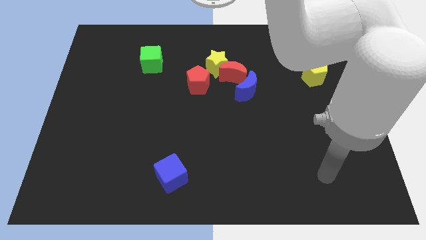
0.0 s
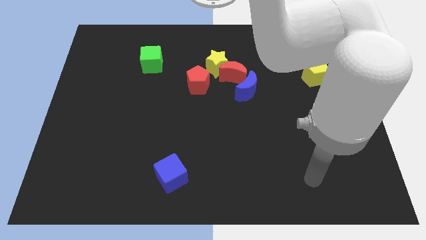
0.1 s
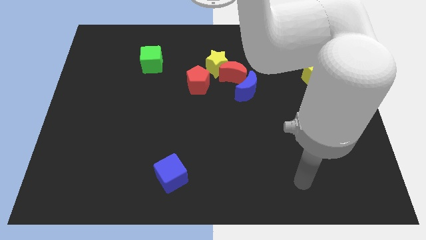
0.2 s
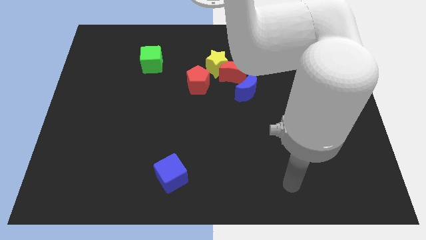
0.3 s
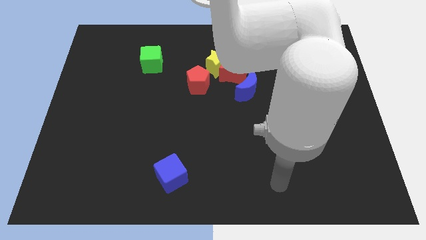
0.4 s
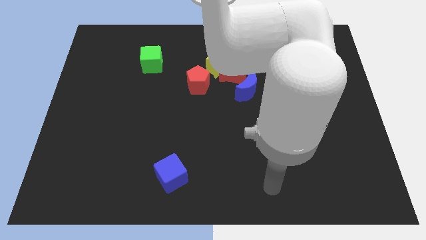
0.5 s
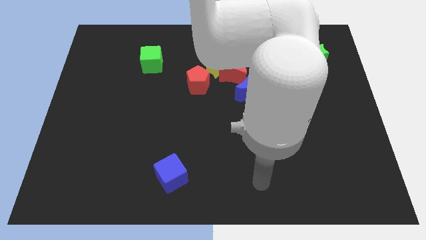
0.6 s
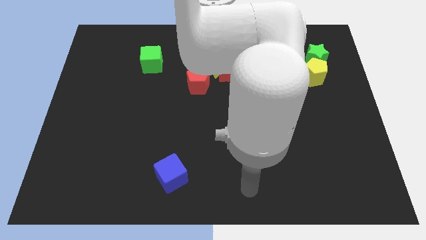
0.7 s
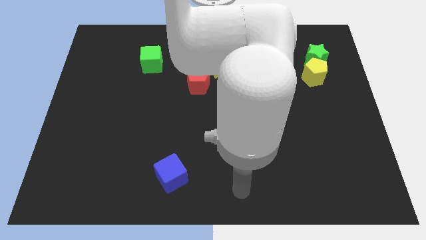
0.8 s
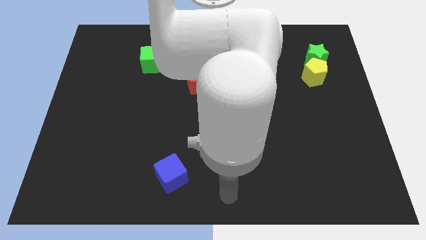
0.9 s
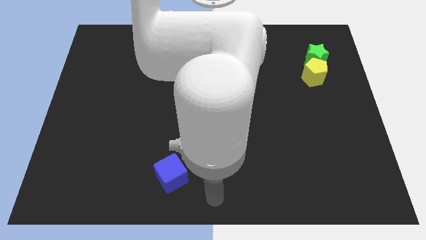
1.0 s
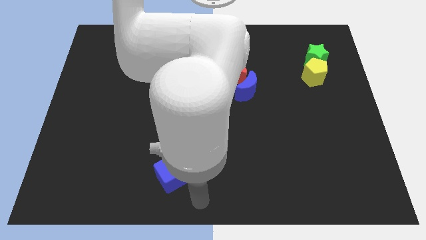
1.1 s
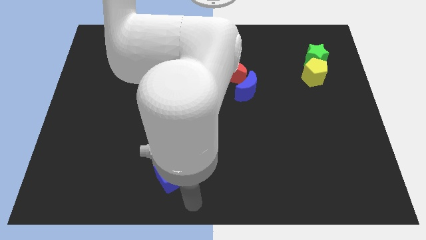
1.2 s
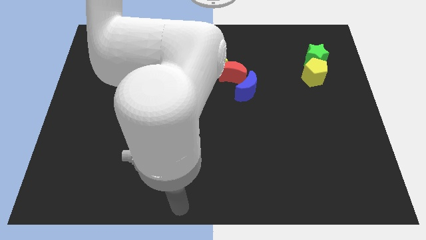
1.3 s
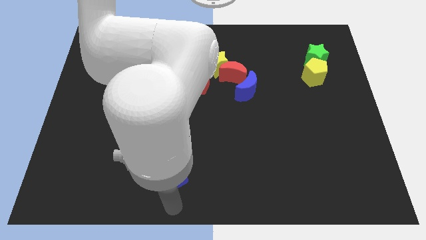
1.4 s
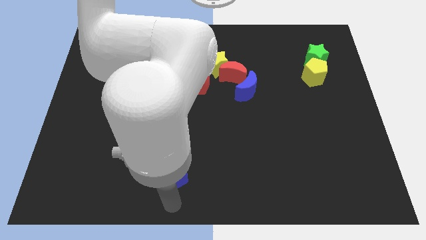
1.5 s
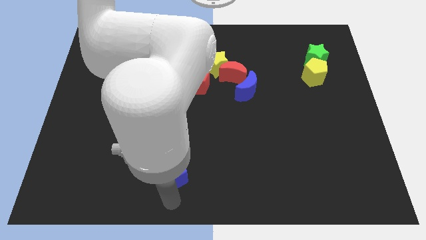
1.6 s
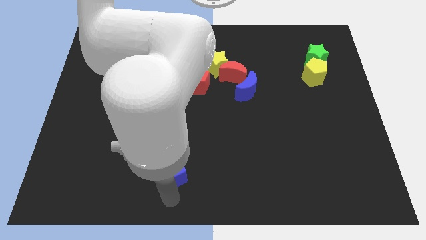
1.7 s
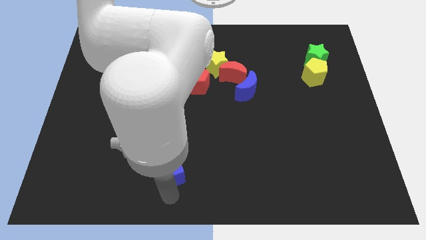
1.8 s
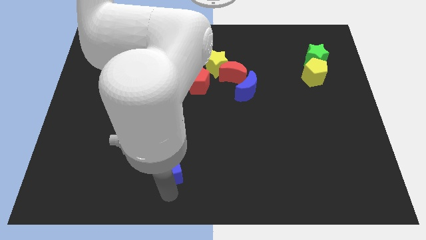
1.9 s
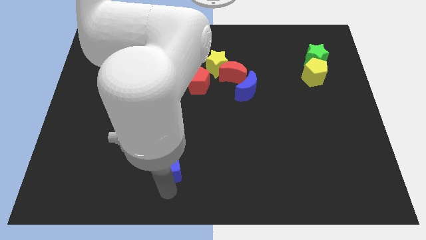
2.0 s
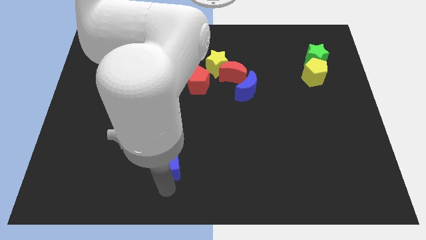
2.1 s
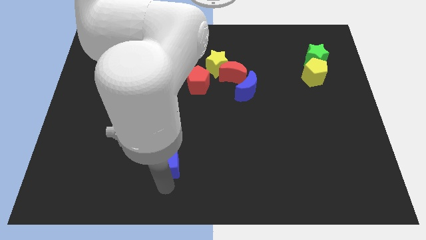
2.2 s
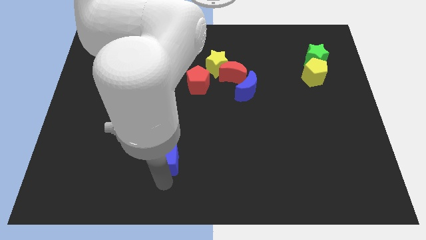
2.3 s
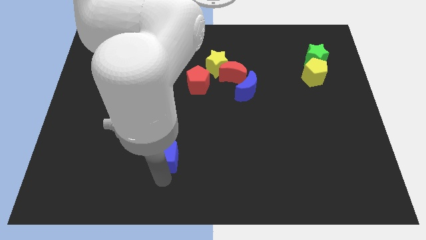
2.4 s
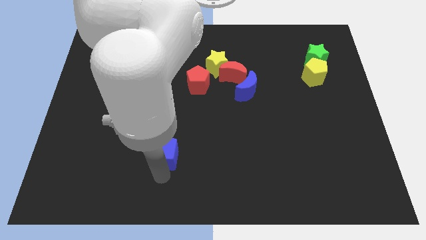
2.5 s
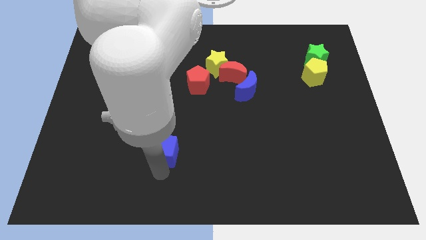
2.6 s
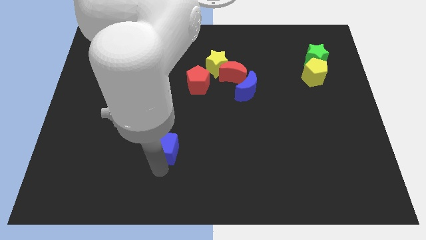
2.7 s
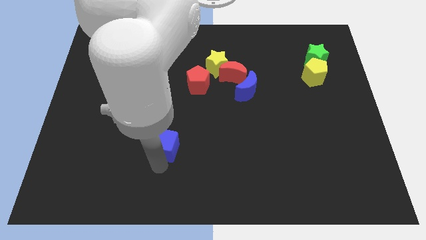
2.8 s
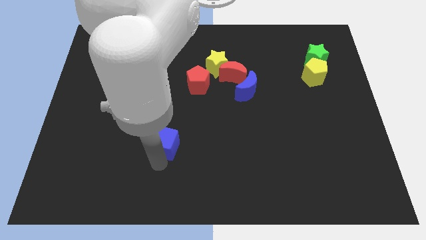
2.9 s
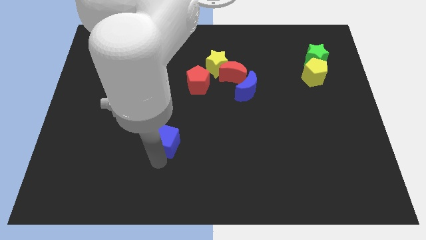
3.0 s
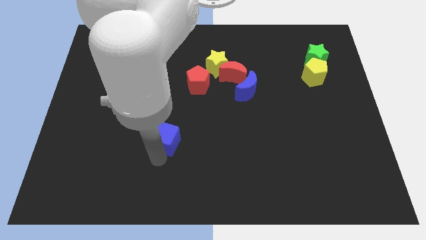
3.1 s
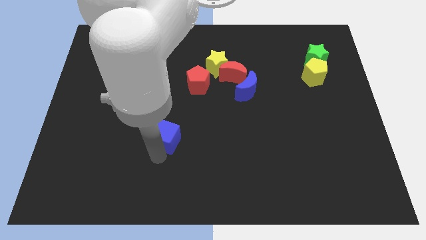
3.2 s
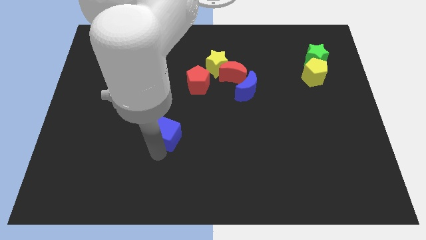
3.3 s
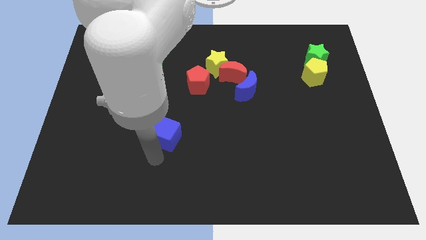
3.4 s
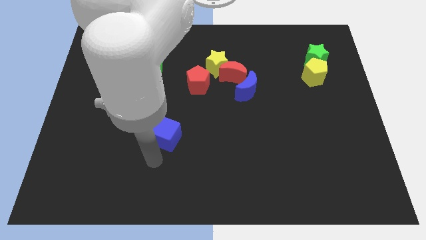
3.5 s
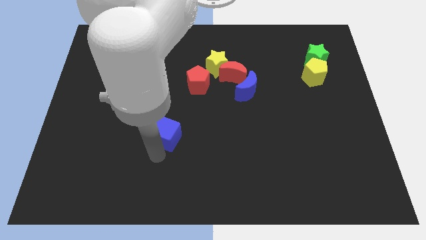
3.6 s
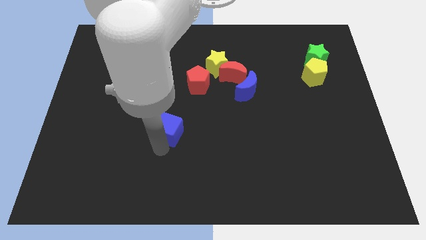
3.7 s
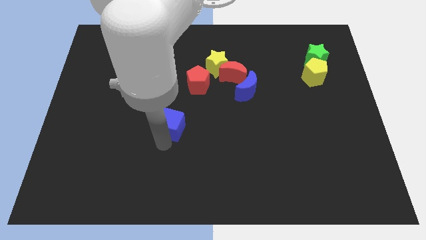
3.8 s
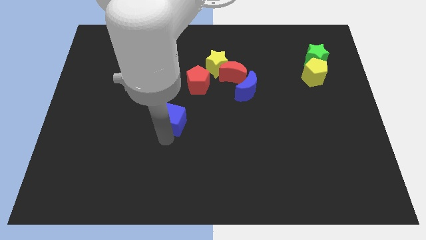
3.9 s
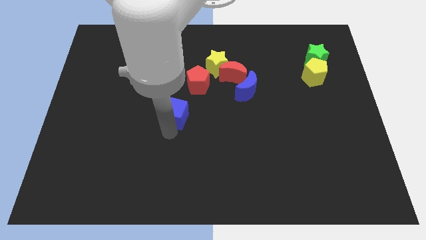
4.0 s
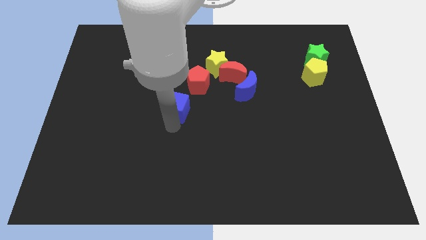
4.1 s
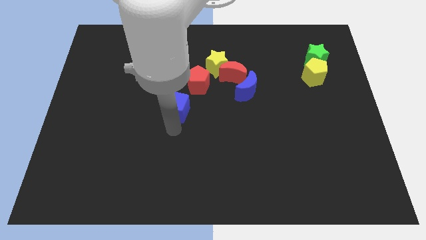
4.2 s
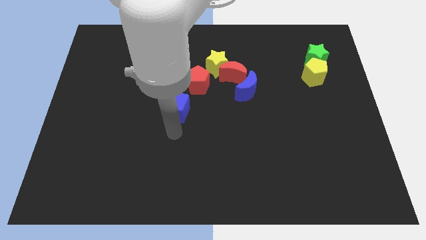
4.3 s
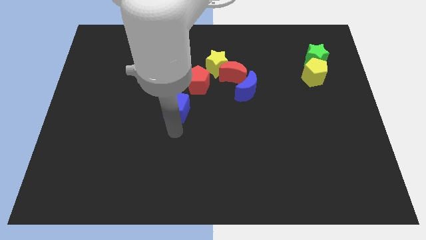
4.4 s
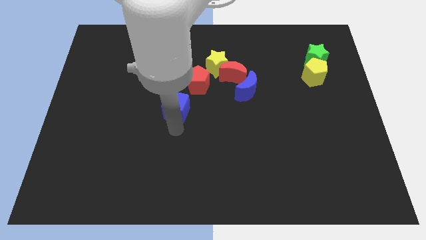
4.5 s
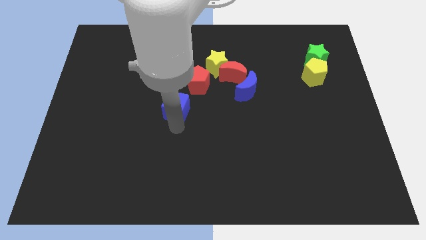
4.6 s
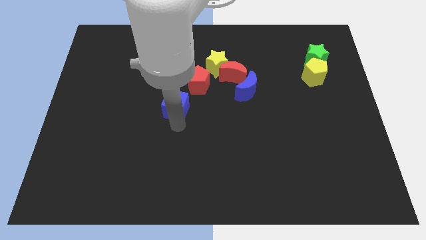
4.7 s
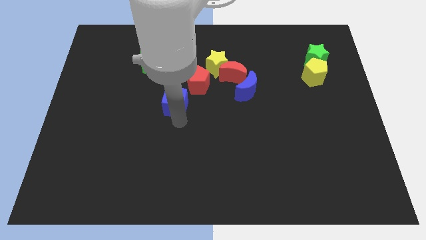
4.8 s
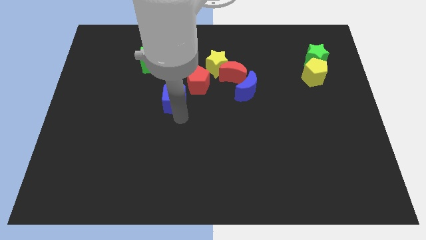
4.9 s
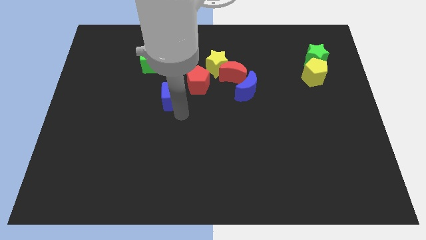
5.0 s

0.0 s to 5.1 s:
move the blue cube upwards

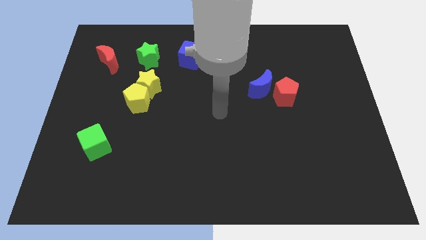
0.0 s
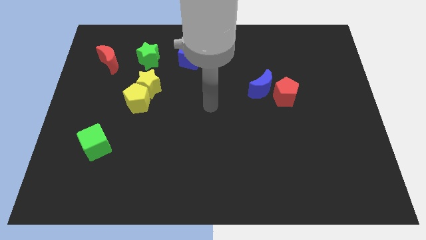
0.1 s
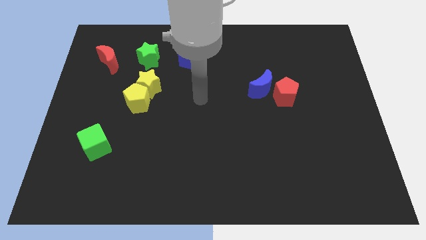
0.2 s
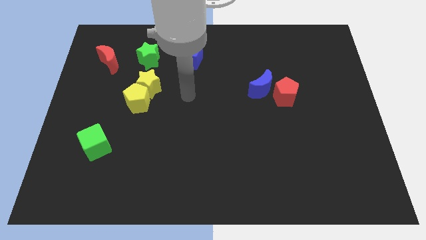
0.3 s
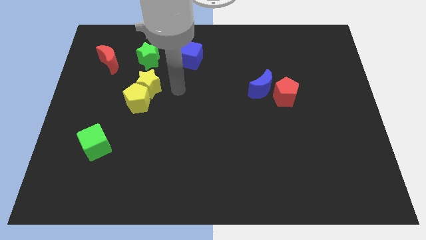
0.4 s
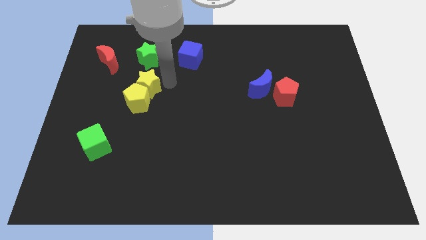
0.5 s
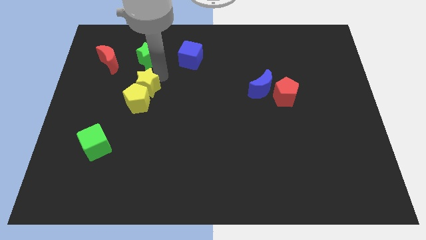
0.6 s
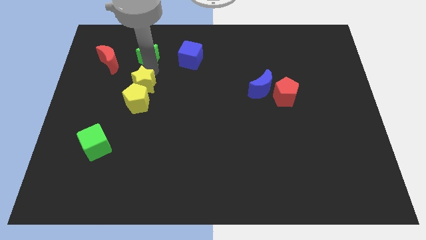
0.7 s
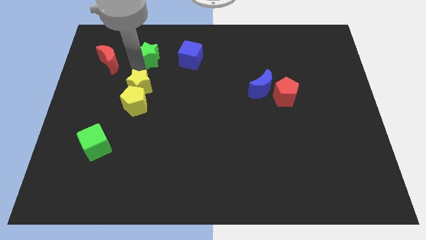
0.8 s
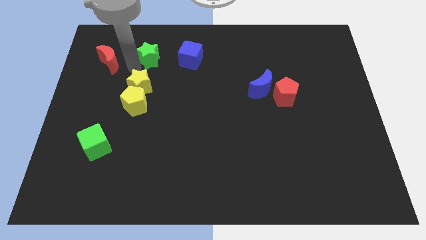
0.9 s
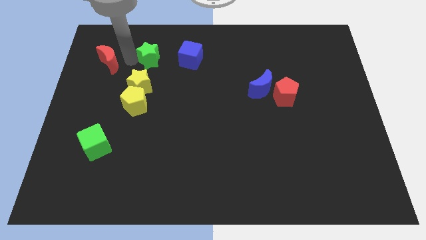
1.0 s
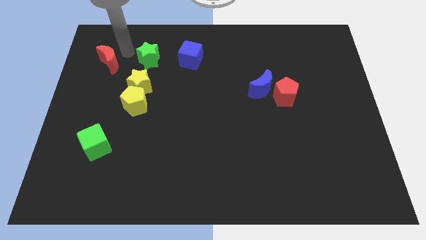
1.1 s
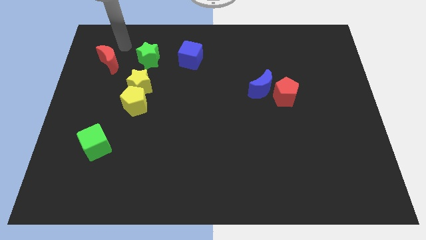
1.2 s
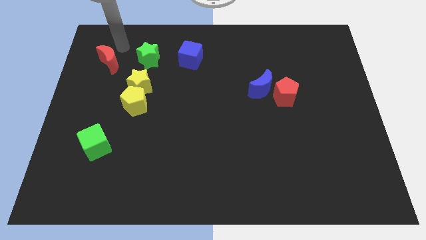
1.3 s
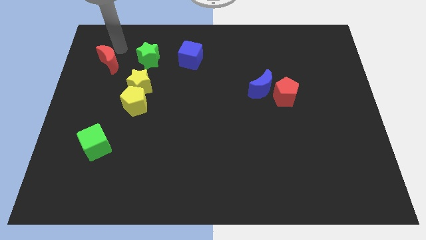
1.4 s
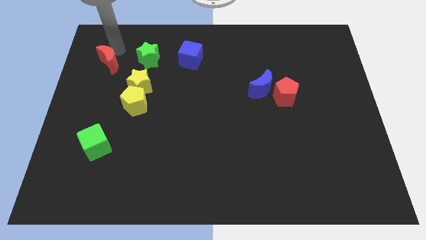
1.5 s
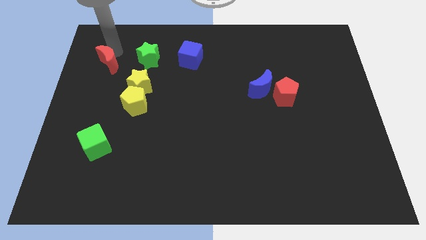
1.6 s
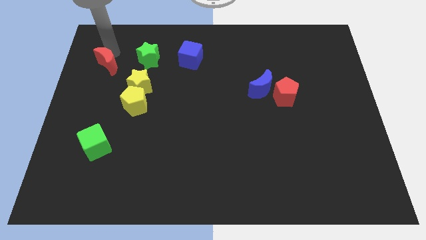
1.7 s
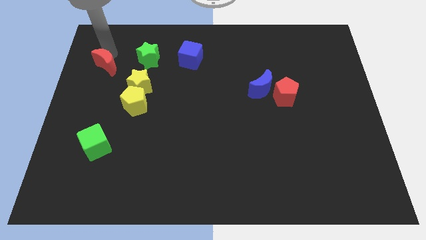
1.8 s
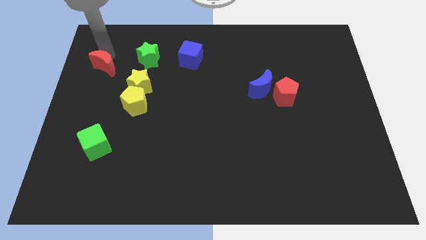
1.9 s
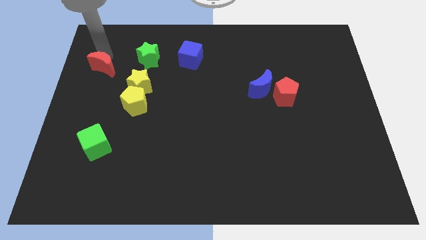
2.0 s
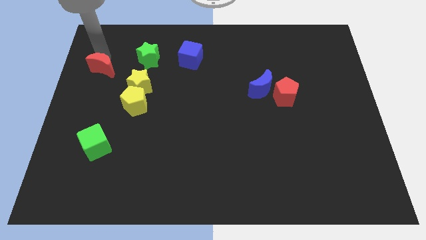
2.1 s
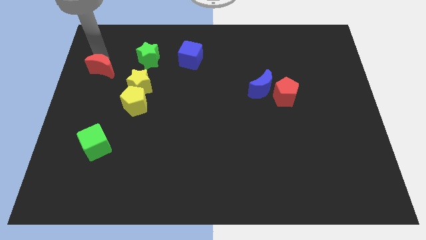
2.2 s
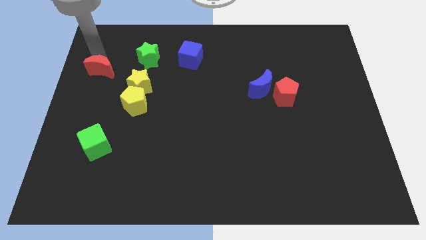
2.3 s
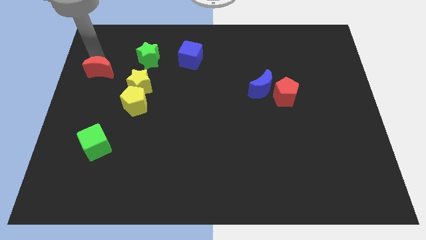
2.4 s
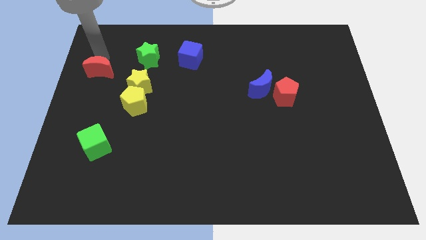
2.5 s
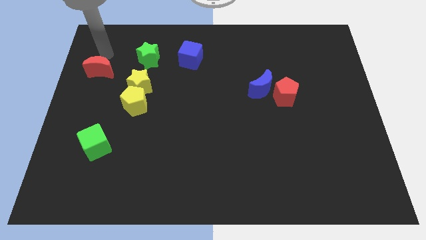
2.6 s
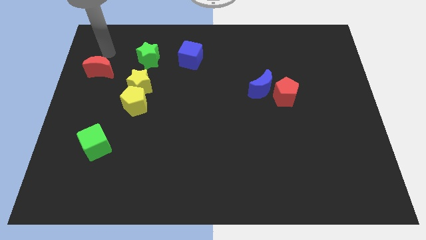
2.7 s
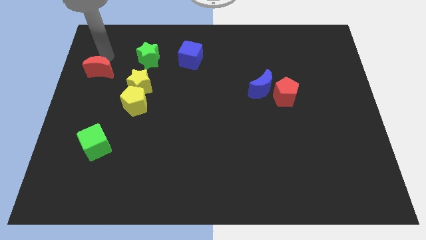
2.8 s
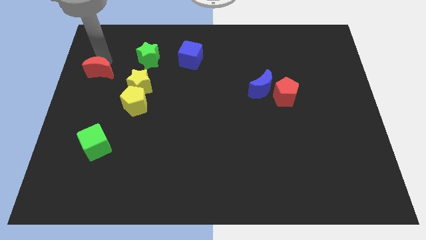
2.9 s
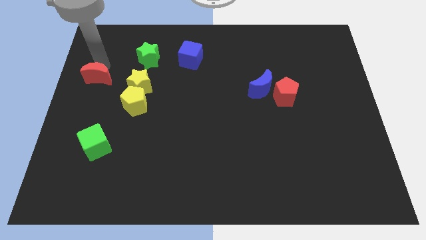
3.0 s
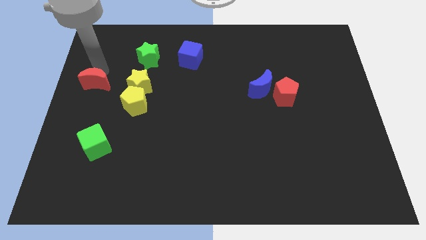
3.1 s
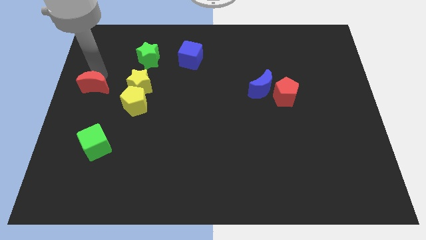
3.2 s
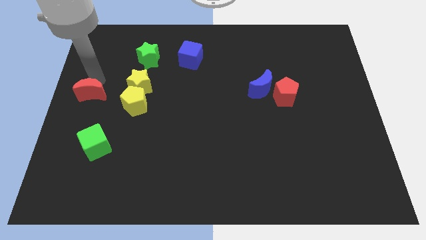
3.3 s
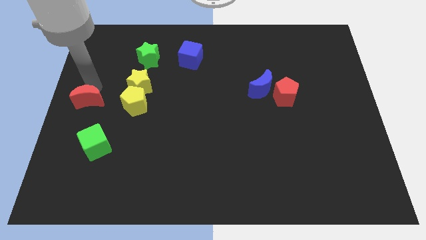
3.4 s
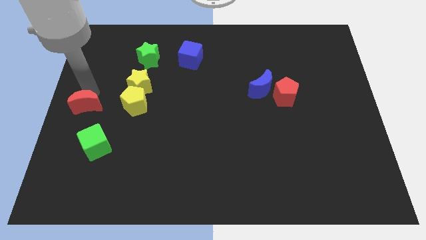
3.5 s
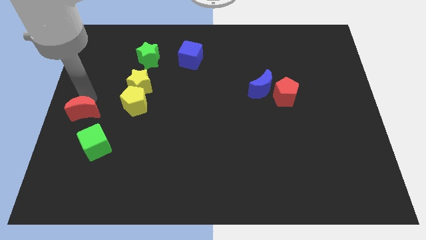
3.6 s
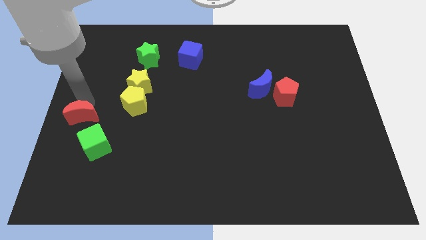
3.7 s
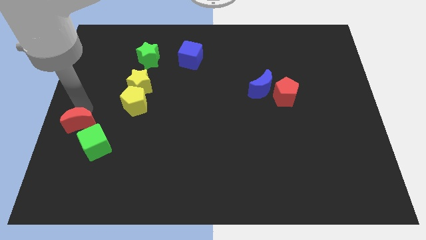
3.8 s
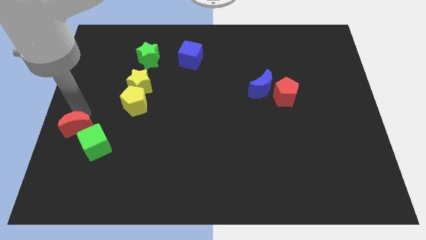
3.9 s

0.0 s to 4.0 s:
slide the red moon down

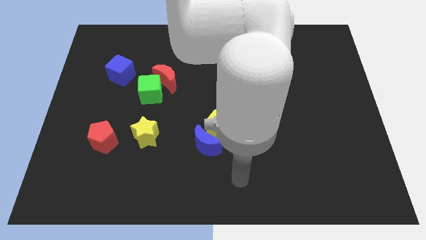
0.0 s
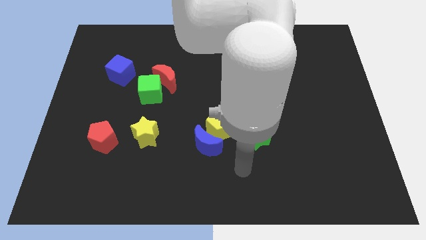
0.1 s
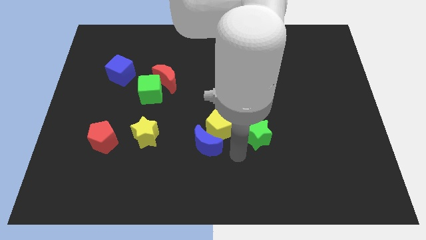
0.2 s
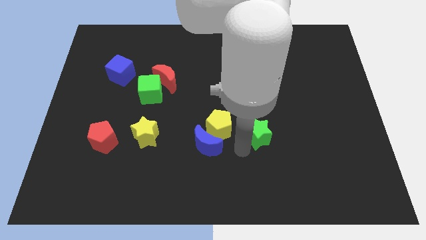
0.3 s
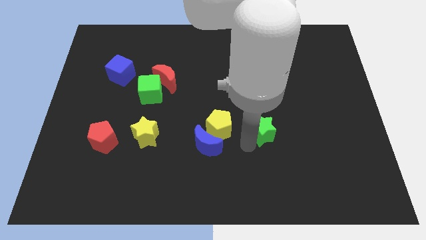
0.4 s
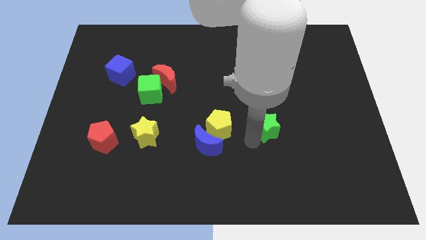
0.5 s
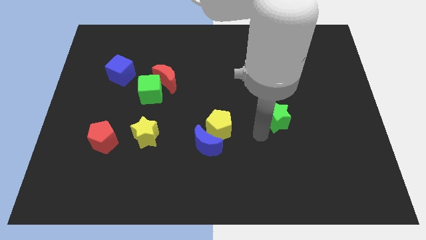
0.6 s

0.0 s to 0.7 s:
push the green star somewhat up and right
